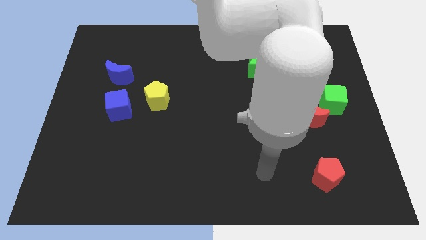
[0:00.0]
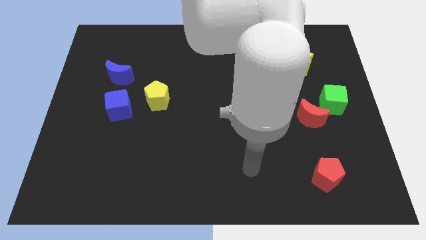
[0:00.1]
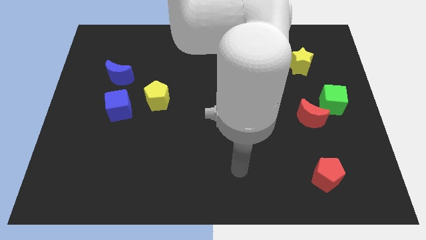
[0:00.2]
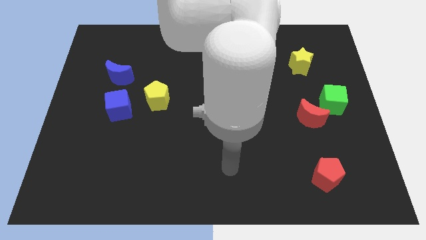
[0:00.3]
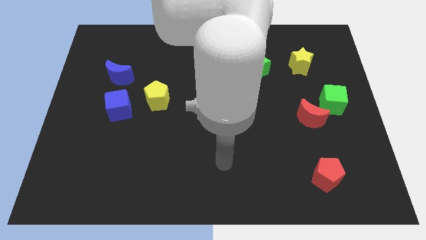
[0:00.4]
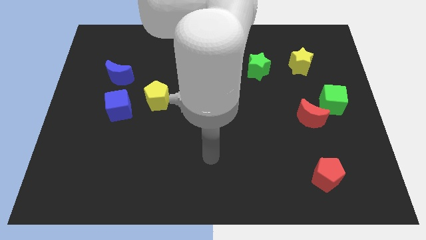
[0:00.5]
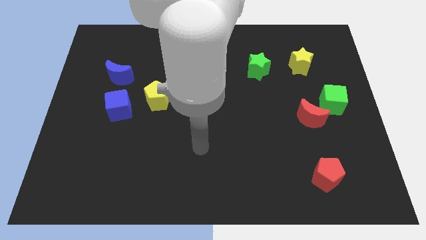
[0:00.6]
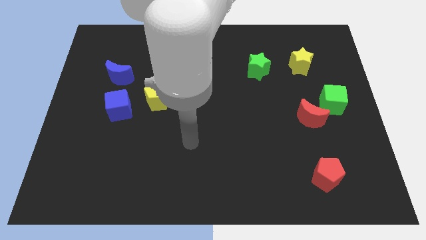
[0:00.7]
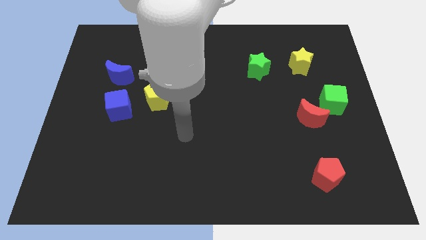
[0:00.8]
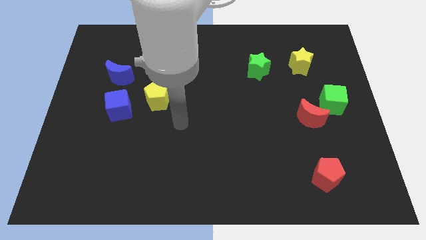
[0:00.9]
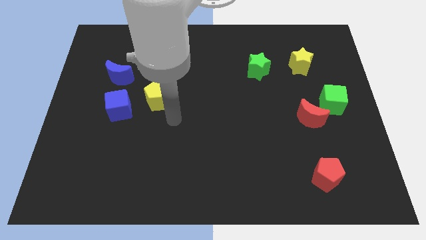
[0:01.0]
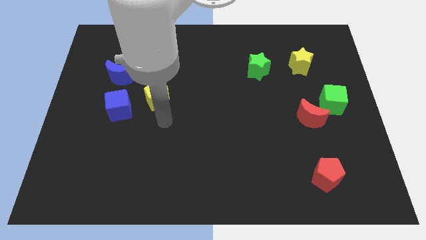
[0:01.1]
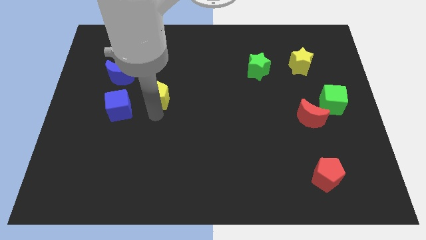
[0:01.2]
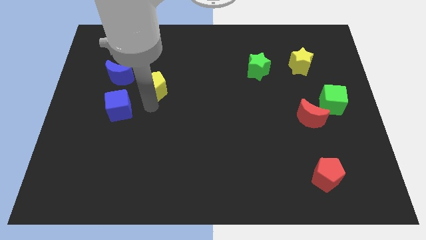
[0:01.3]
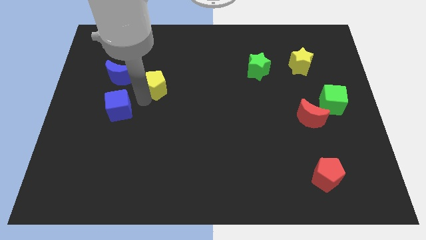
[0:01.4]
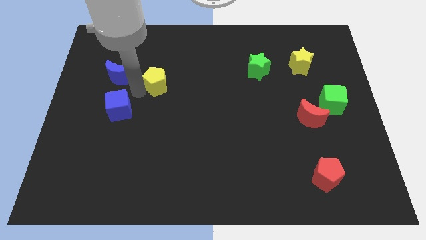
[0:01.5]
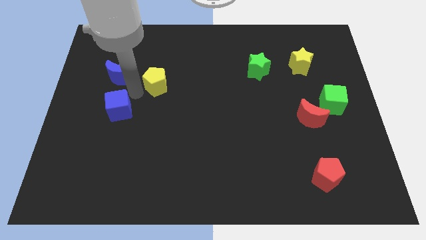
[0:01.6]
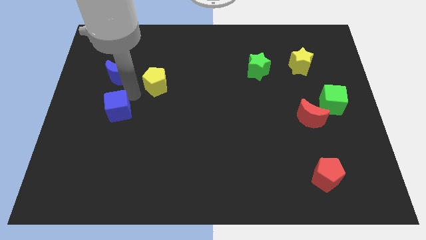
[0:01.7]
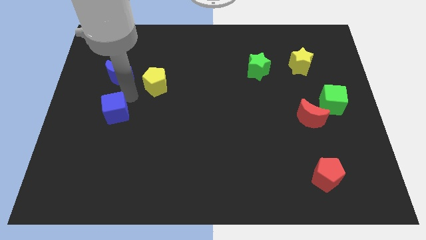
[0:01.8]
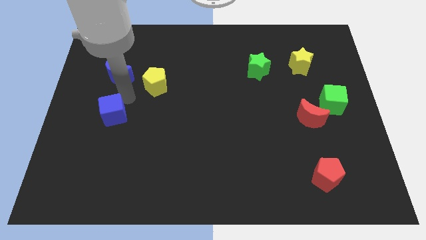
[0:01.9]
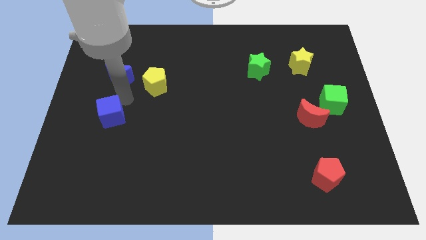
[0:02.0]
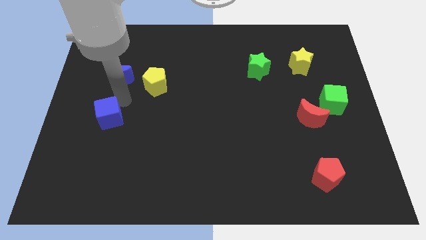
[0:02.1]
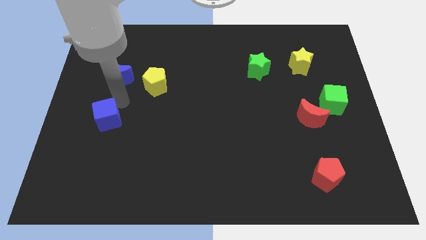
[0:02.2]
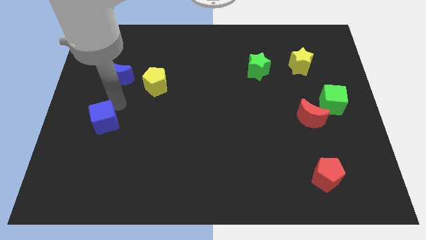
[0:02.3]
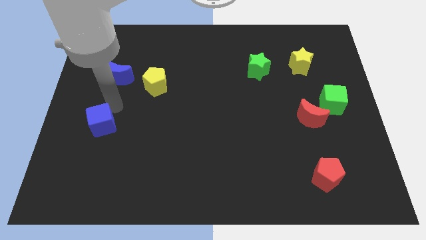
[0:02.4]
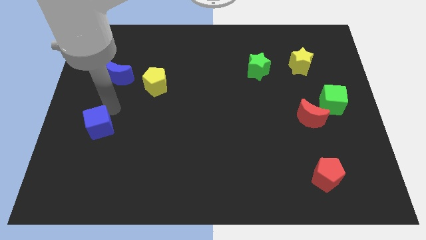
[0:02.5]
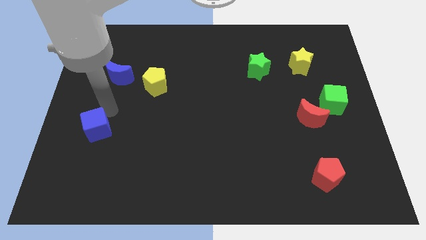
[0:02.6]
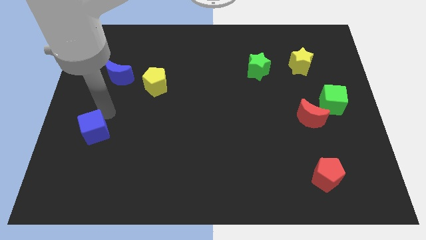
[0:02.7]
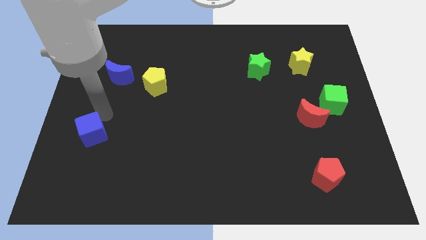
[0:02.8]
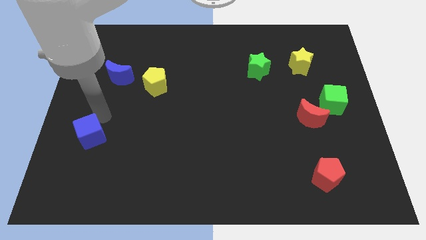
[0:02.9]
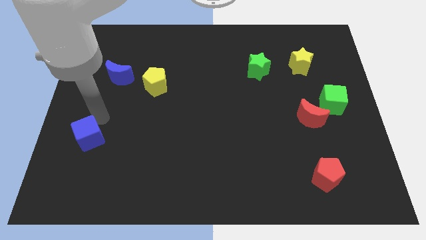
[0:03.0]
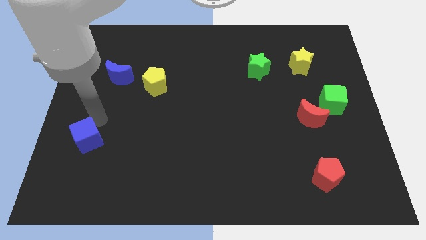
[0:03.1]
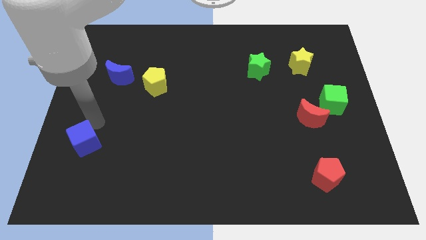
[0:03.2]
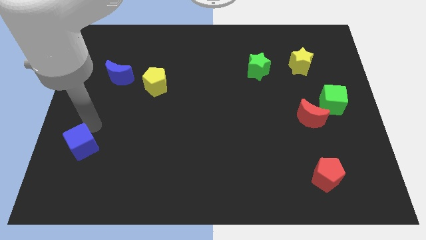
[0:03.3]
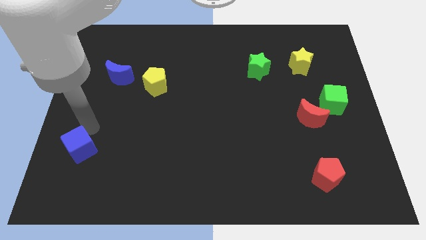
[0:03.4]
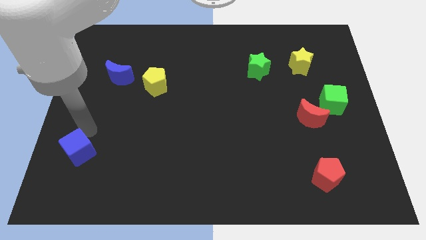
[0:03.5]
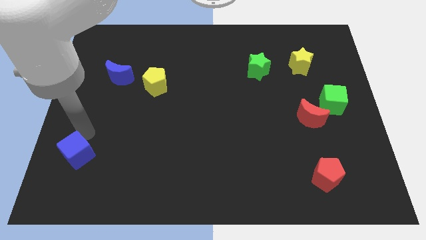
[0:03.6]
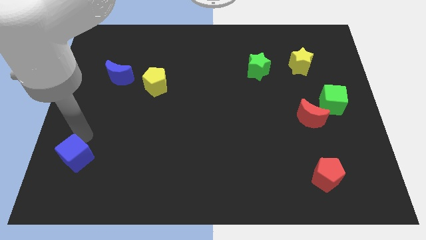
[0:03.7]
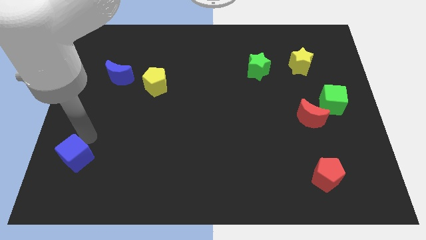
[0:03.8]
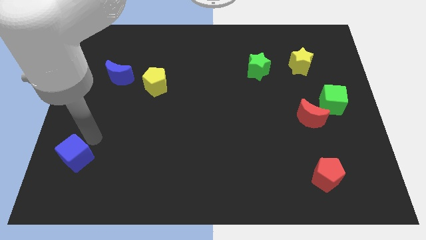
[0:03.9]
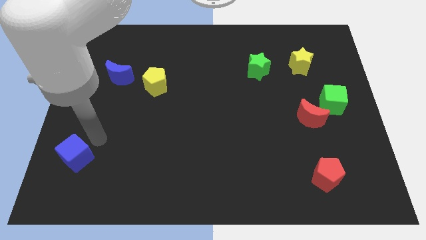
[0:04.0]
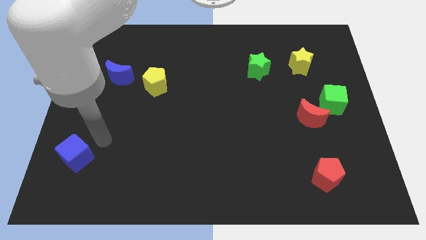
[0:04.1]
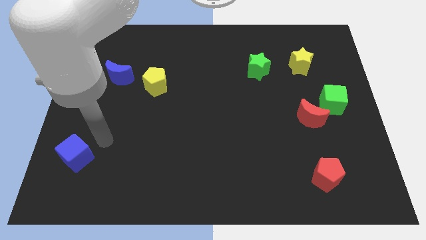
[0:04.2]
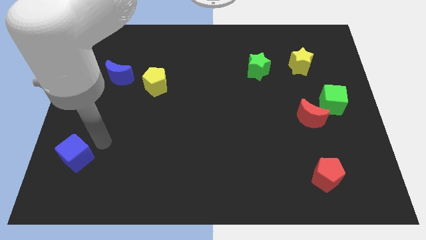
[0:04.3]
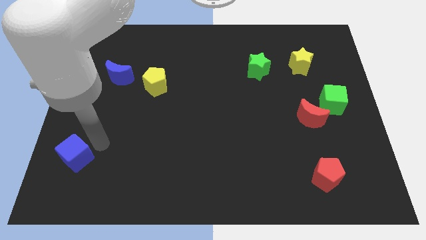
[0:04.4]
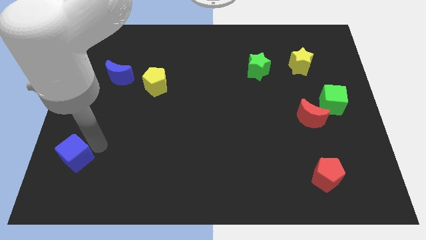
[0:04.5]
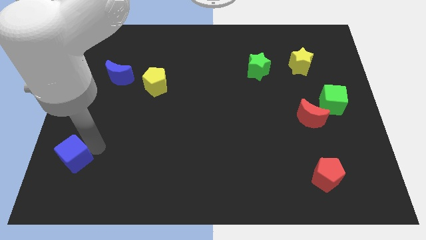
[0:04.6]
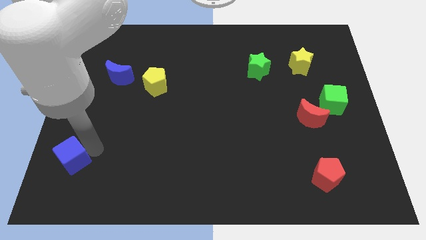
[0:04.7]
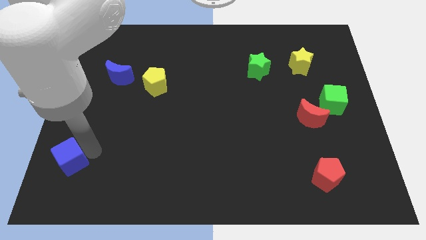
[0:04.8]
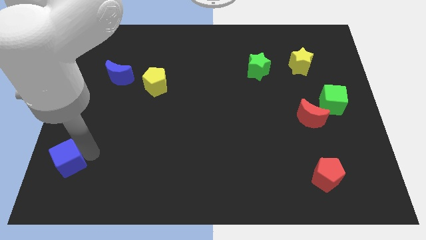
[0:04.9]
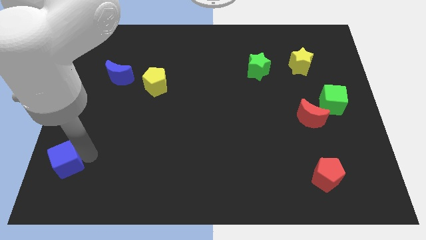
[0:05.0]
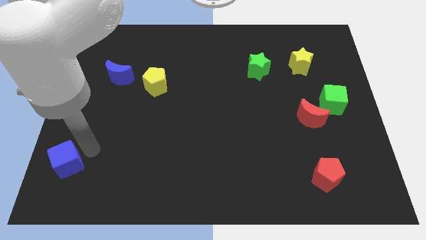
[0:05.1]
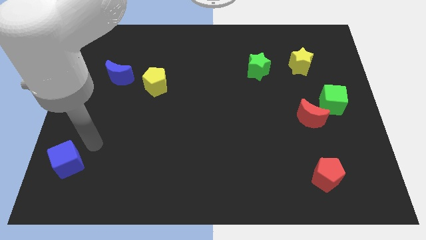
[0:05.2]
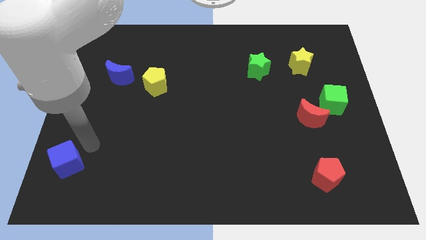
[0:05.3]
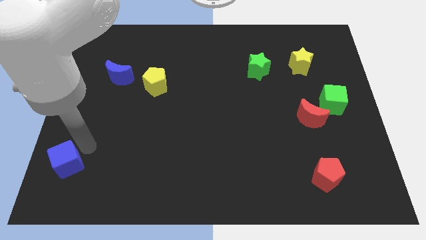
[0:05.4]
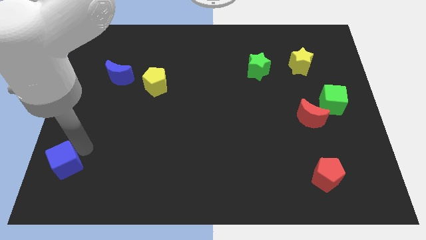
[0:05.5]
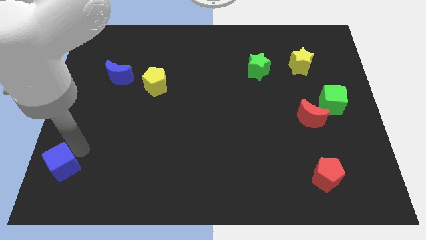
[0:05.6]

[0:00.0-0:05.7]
put the blue cube to the bottom left corner

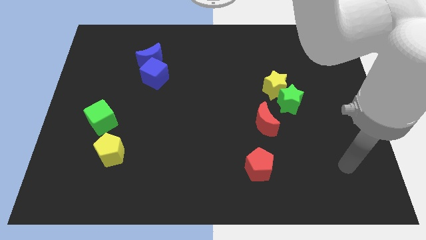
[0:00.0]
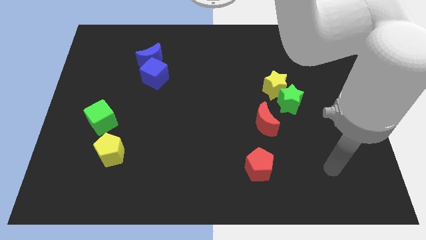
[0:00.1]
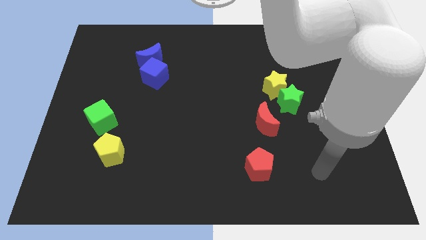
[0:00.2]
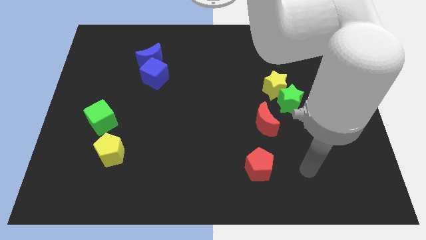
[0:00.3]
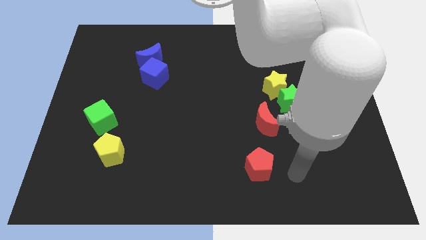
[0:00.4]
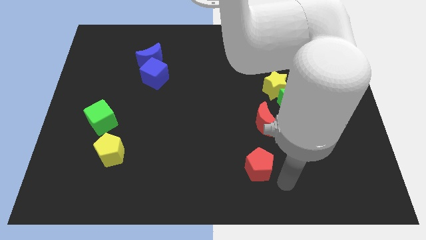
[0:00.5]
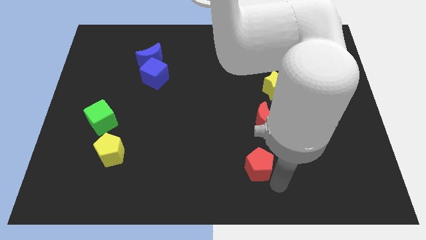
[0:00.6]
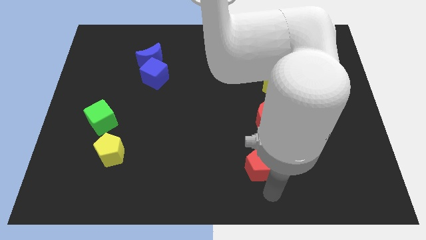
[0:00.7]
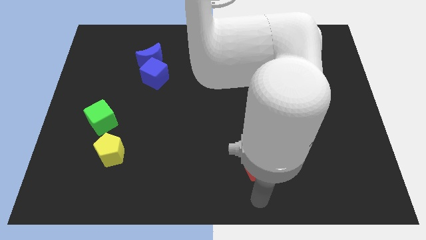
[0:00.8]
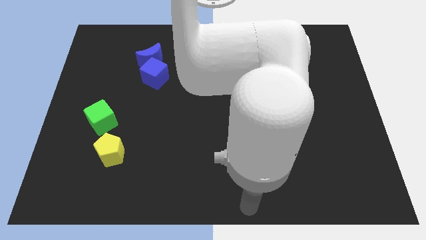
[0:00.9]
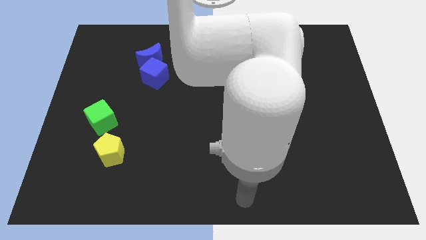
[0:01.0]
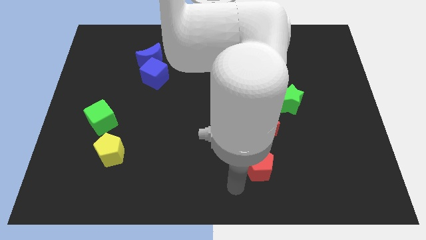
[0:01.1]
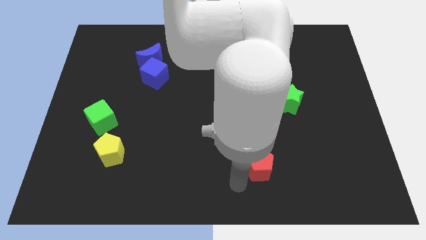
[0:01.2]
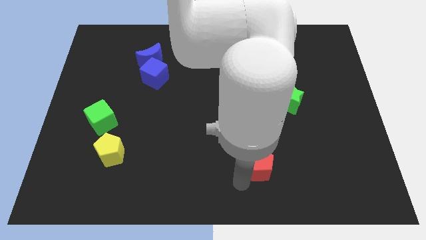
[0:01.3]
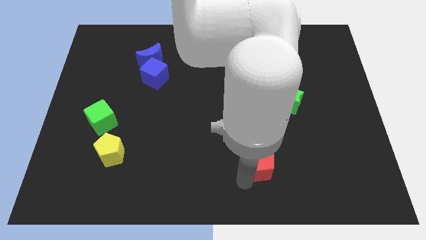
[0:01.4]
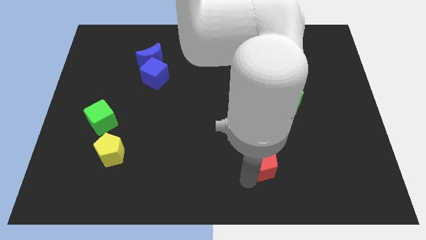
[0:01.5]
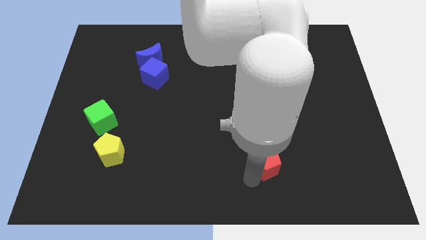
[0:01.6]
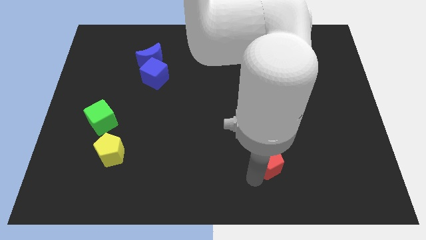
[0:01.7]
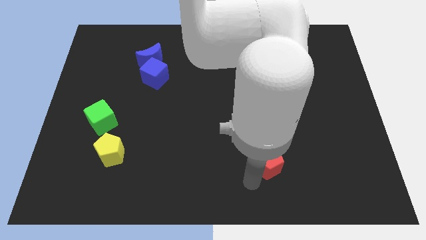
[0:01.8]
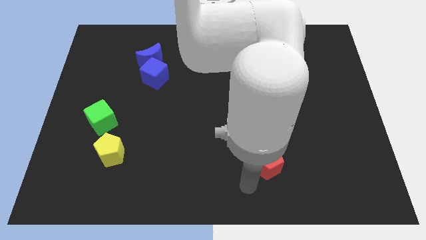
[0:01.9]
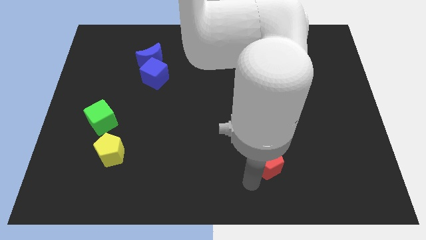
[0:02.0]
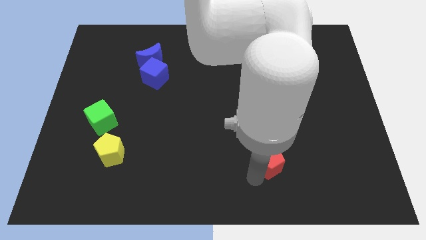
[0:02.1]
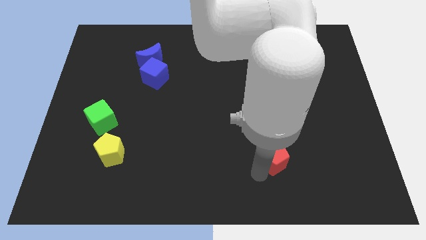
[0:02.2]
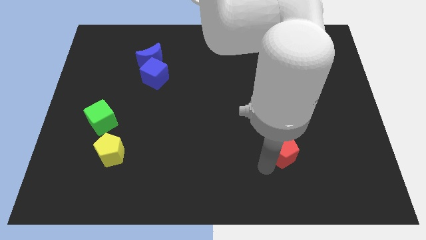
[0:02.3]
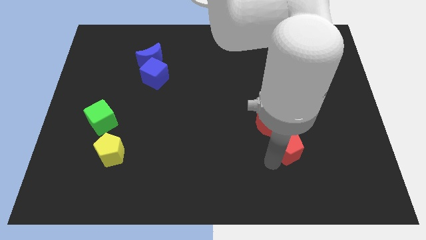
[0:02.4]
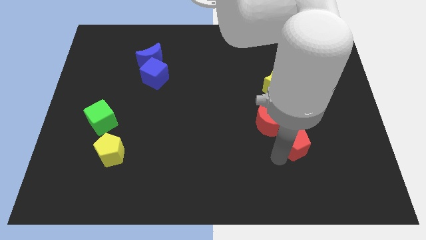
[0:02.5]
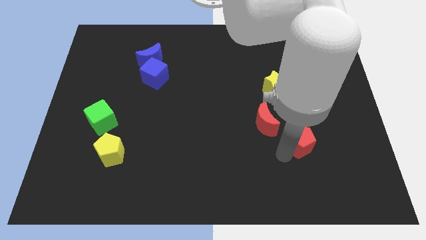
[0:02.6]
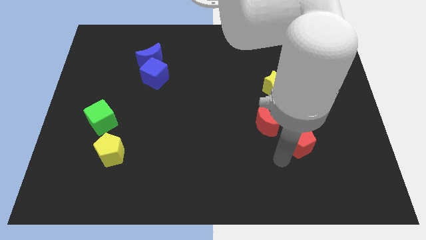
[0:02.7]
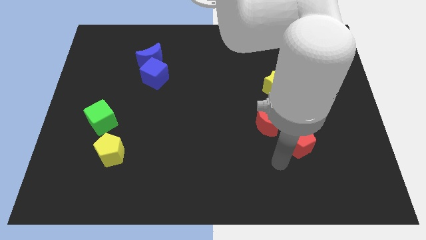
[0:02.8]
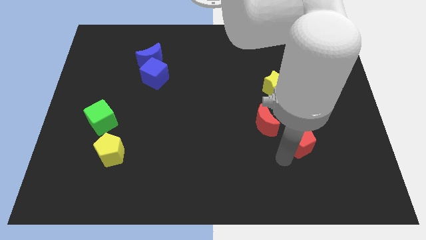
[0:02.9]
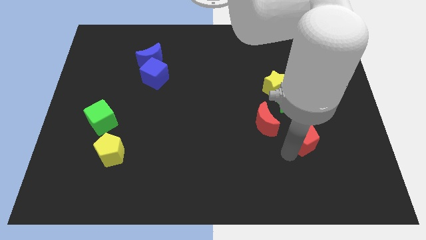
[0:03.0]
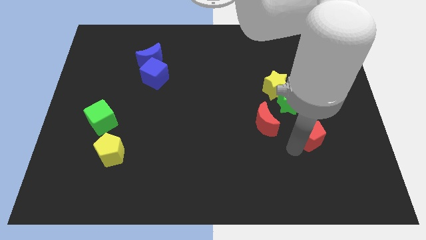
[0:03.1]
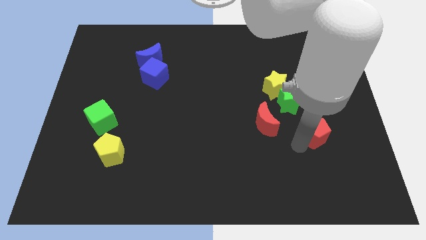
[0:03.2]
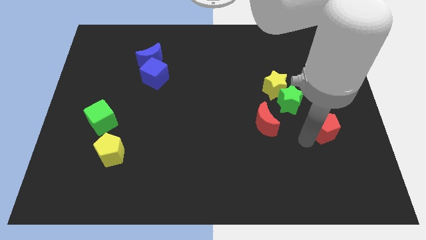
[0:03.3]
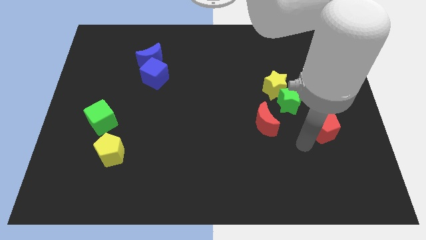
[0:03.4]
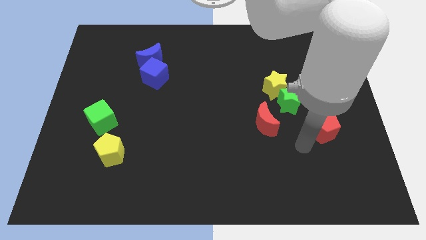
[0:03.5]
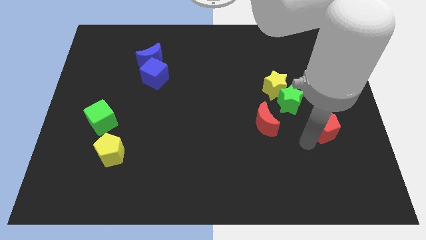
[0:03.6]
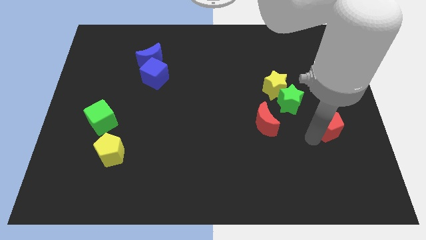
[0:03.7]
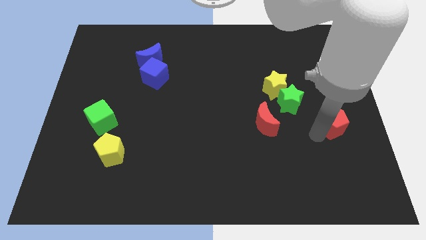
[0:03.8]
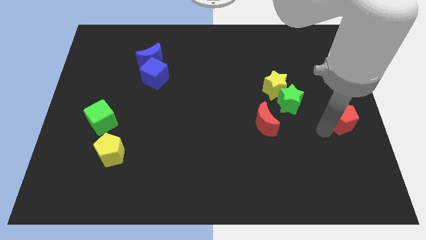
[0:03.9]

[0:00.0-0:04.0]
slide the red pentagon to the center right
